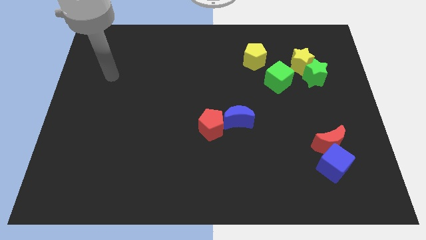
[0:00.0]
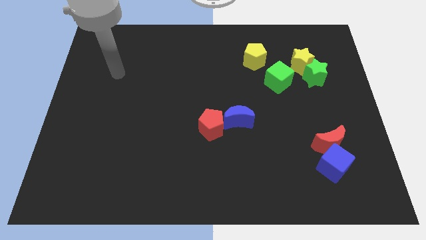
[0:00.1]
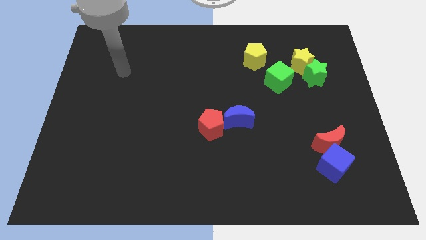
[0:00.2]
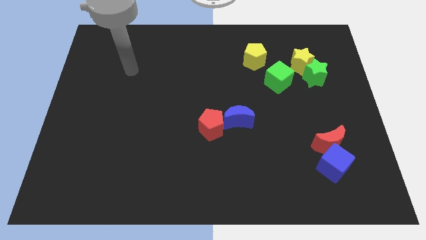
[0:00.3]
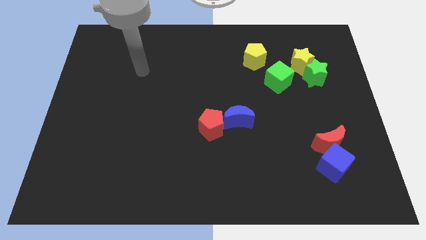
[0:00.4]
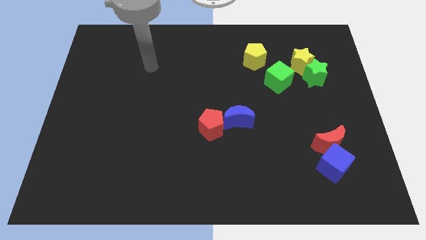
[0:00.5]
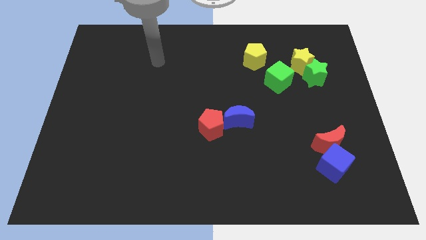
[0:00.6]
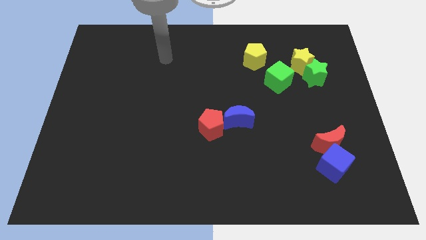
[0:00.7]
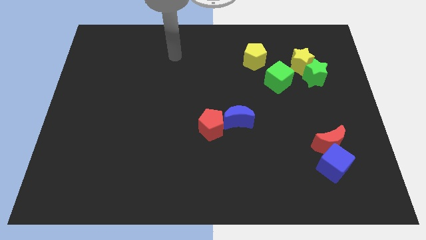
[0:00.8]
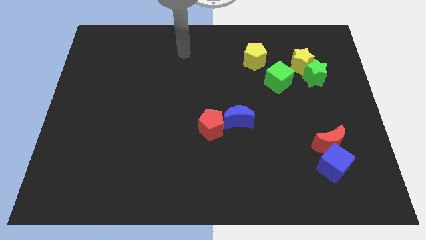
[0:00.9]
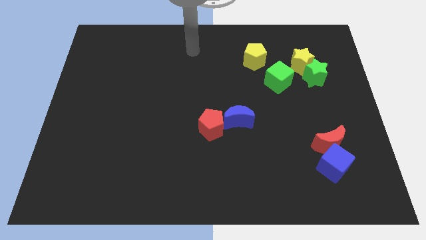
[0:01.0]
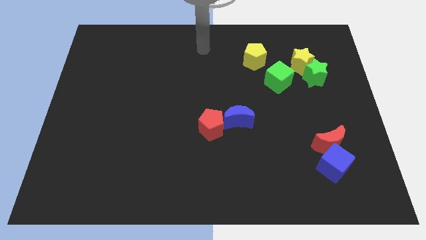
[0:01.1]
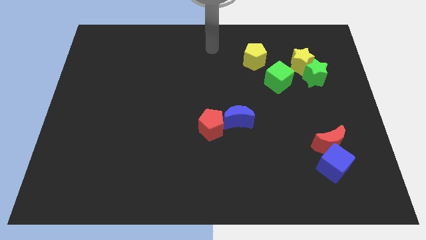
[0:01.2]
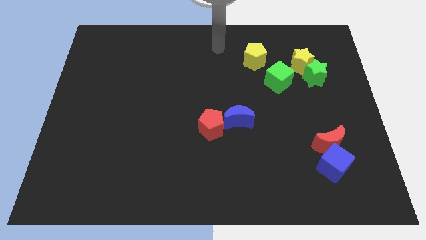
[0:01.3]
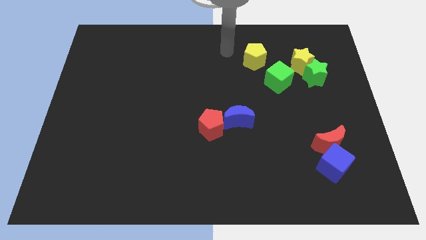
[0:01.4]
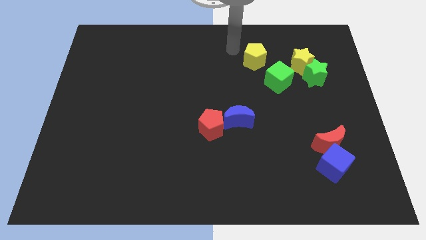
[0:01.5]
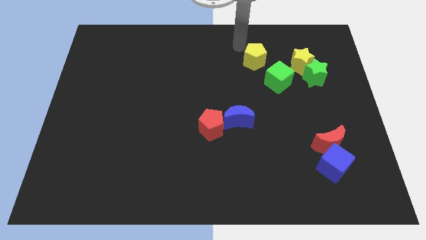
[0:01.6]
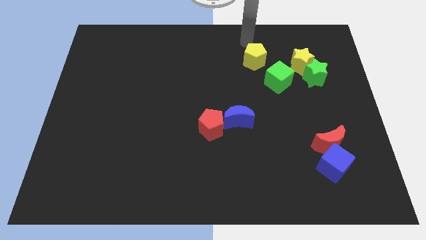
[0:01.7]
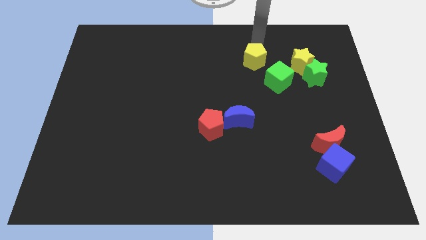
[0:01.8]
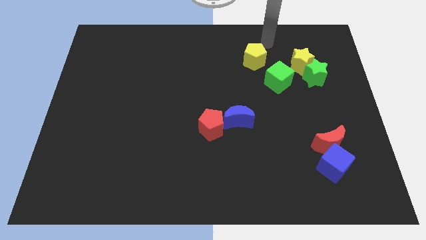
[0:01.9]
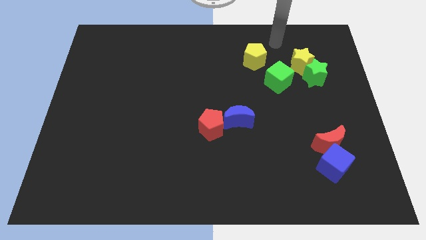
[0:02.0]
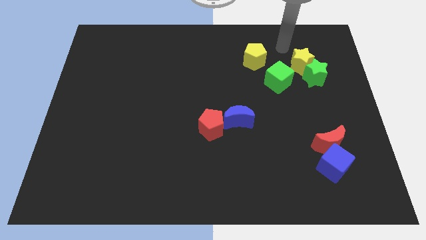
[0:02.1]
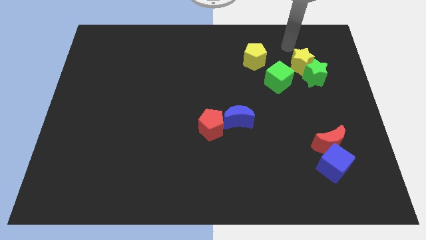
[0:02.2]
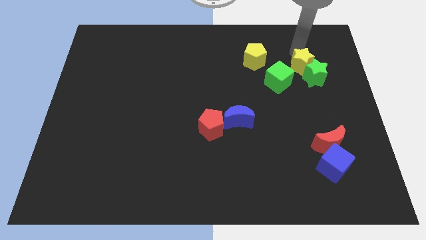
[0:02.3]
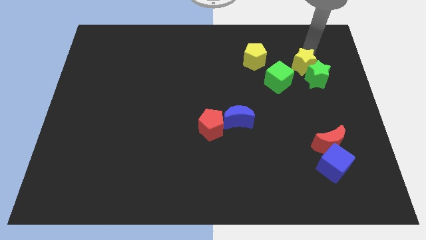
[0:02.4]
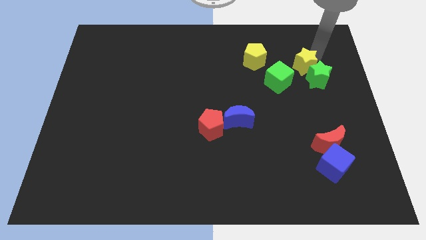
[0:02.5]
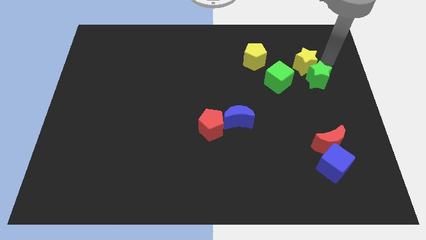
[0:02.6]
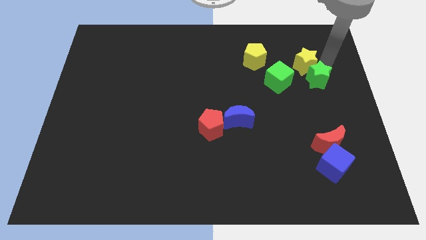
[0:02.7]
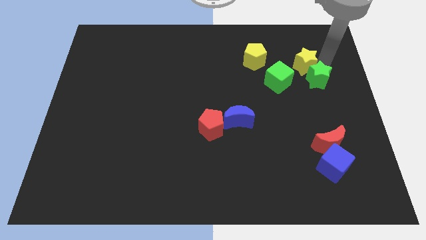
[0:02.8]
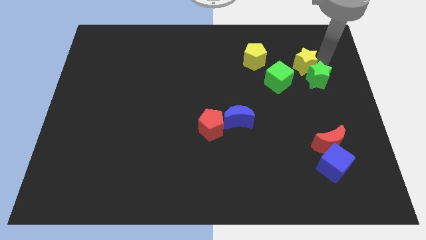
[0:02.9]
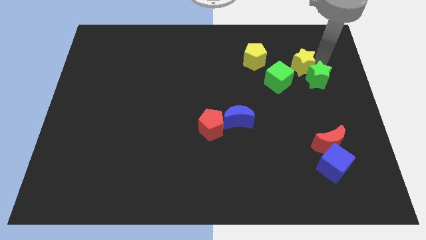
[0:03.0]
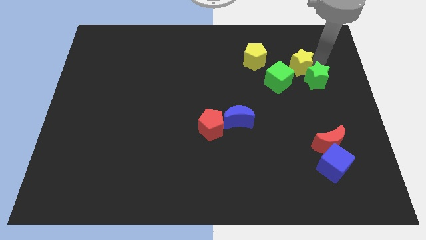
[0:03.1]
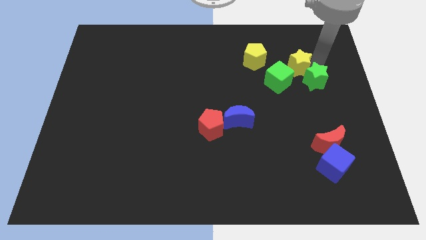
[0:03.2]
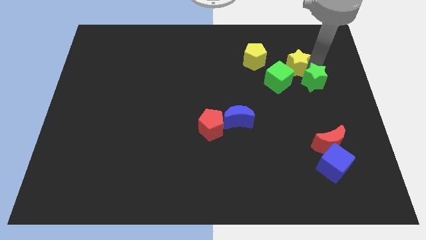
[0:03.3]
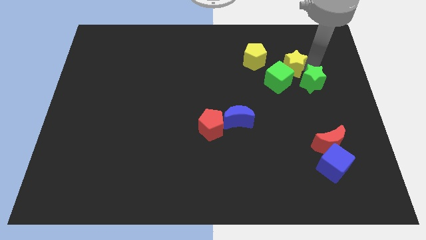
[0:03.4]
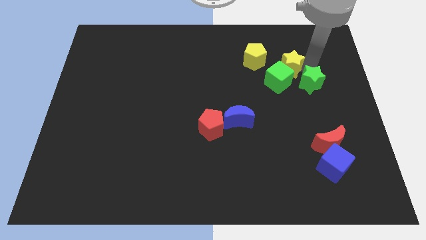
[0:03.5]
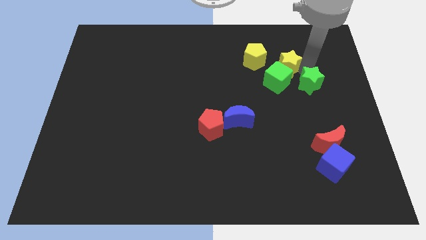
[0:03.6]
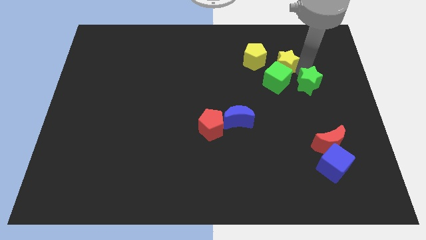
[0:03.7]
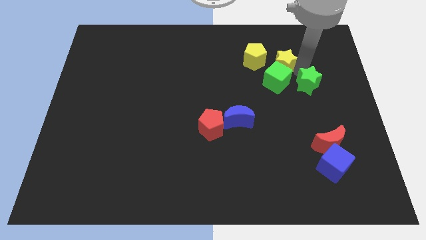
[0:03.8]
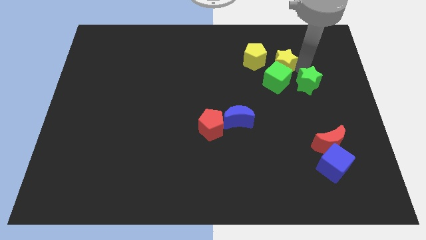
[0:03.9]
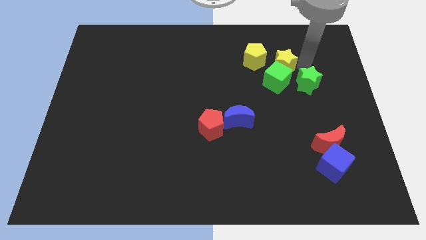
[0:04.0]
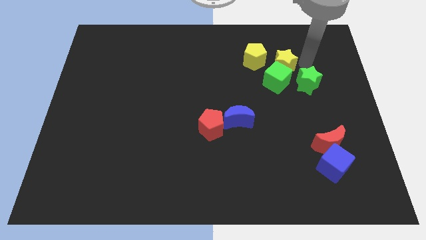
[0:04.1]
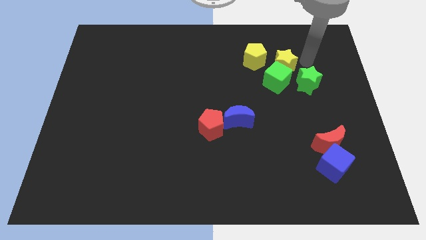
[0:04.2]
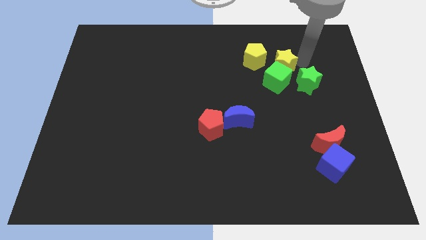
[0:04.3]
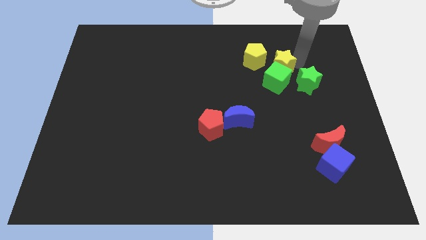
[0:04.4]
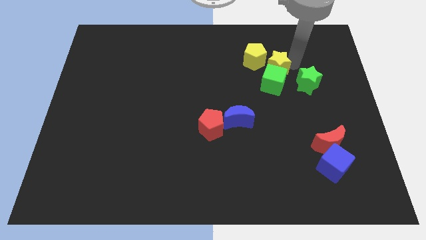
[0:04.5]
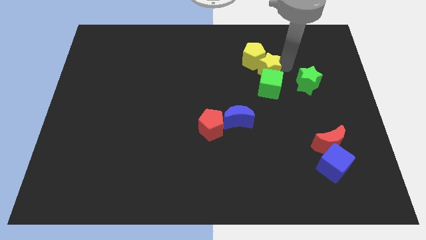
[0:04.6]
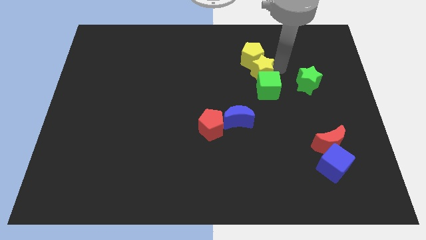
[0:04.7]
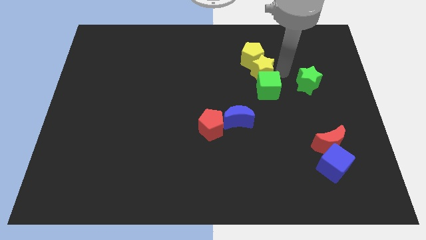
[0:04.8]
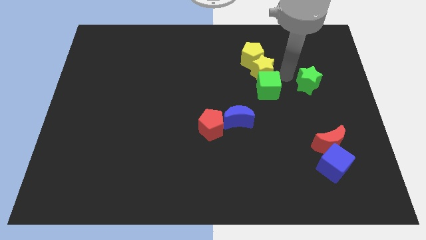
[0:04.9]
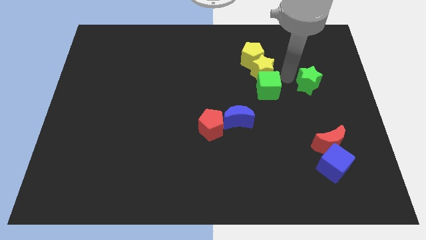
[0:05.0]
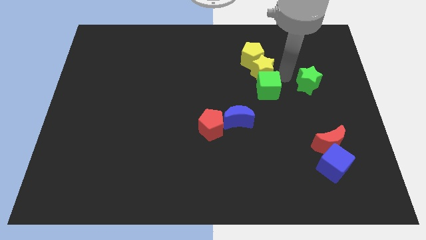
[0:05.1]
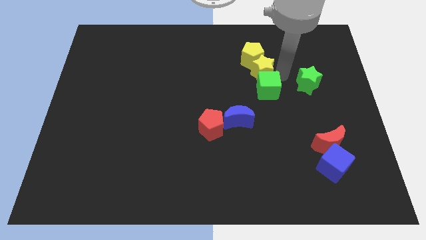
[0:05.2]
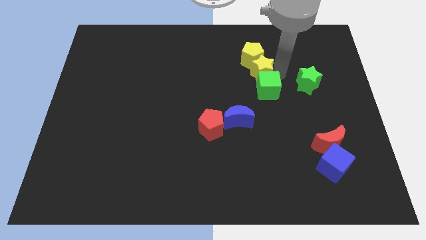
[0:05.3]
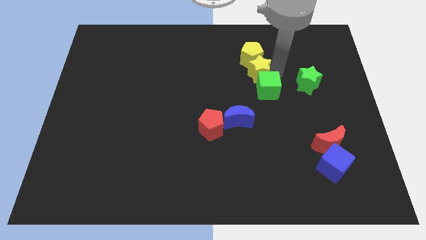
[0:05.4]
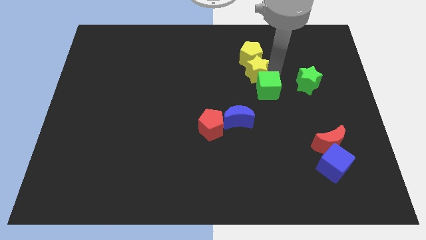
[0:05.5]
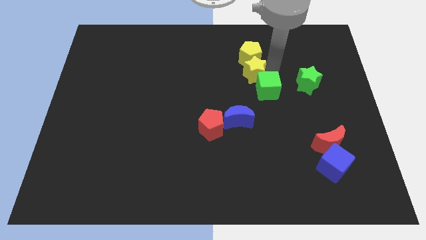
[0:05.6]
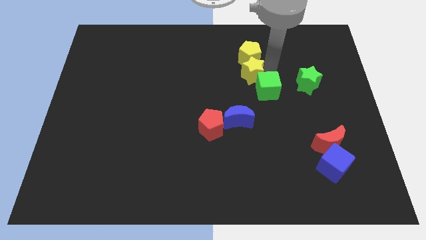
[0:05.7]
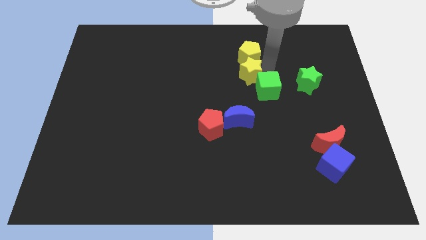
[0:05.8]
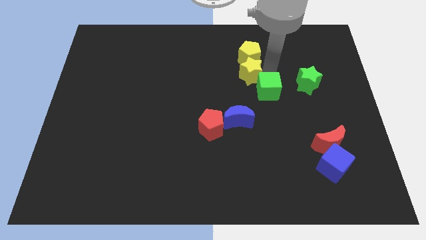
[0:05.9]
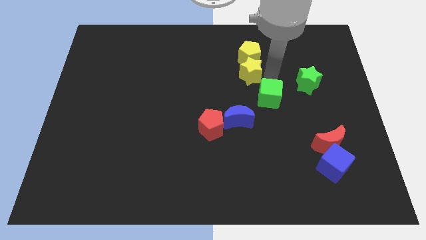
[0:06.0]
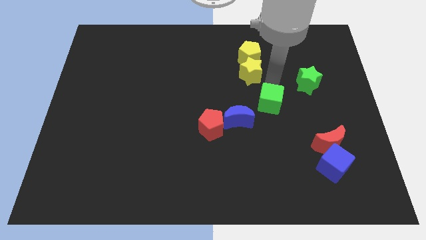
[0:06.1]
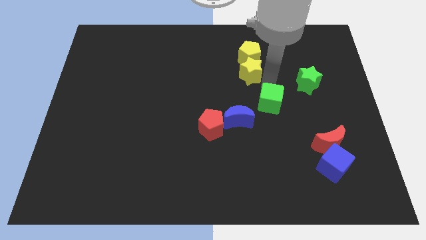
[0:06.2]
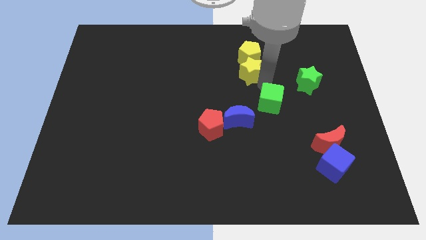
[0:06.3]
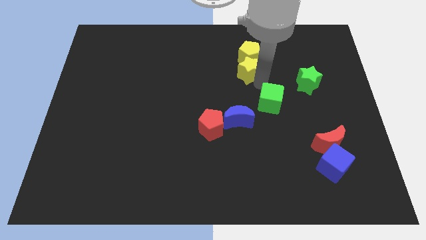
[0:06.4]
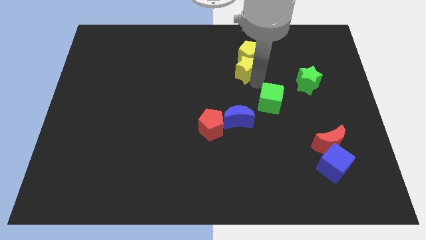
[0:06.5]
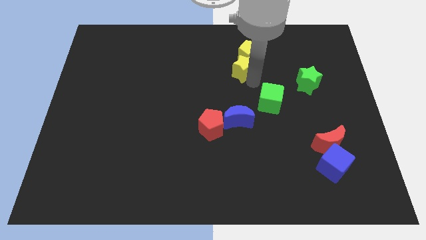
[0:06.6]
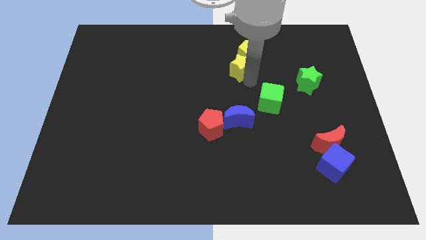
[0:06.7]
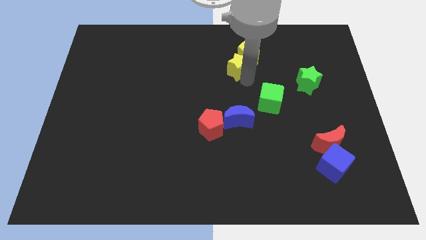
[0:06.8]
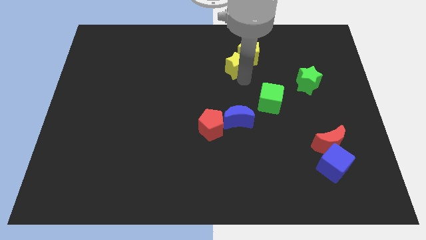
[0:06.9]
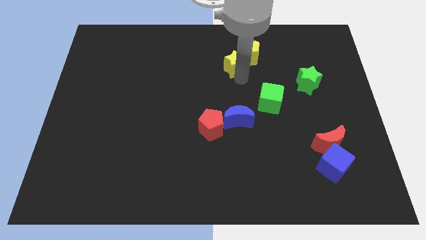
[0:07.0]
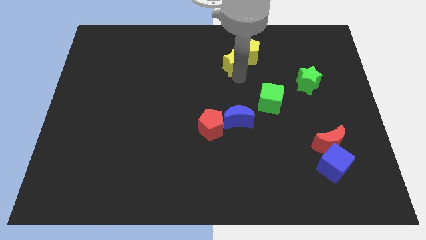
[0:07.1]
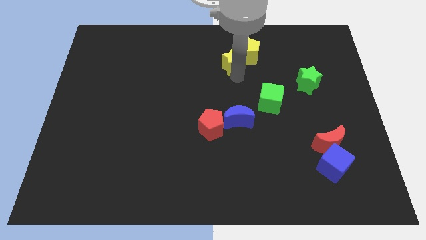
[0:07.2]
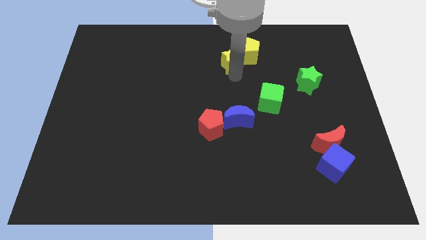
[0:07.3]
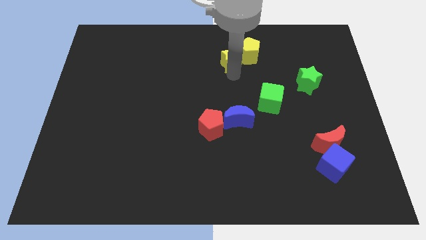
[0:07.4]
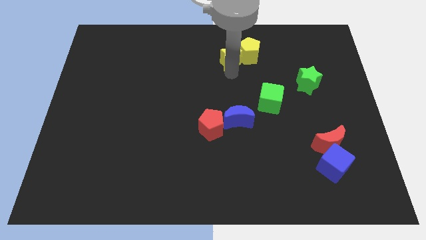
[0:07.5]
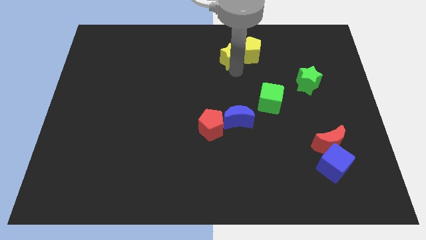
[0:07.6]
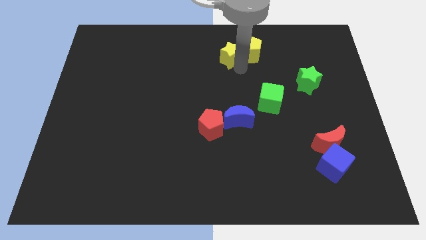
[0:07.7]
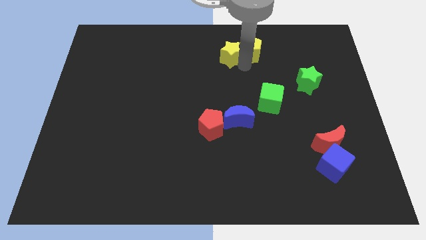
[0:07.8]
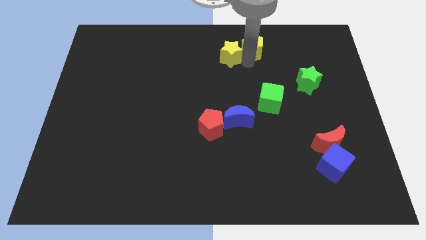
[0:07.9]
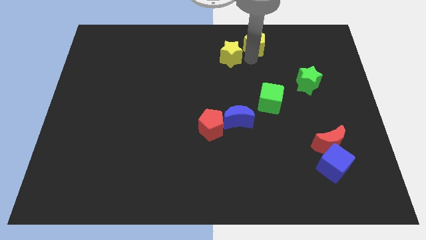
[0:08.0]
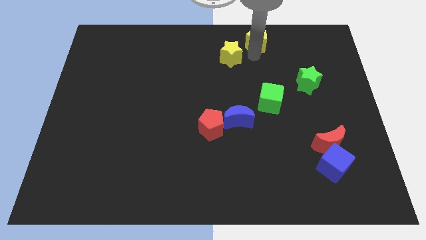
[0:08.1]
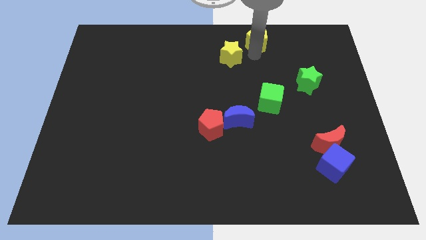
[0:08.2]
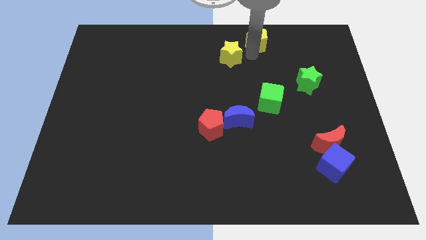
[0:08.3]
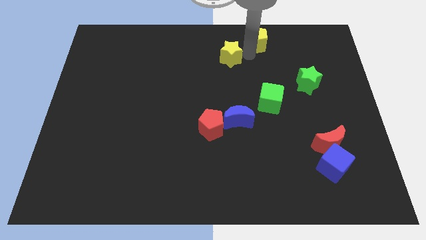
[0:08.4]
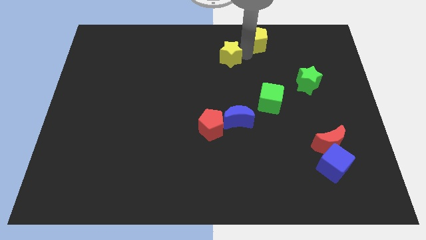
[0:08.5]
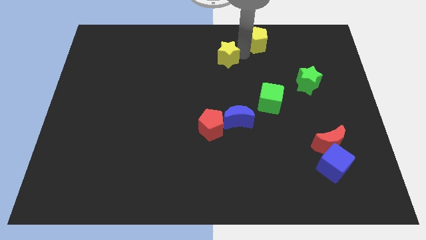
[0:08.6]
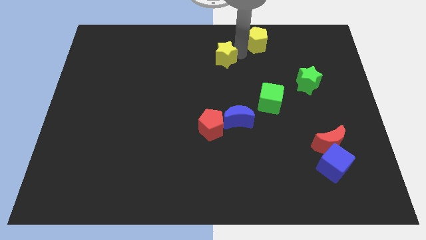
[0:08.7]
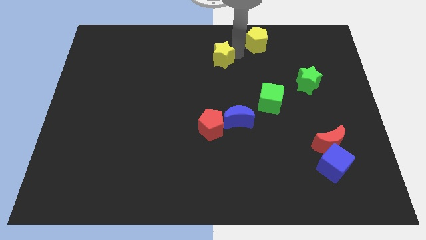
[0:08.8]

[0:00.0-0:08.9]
push the yellow star to the left
